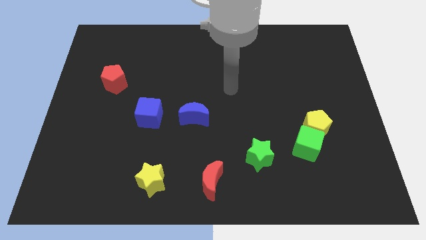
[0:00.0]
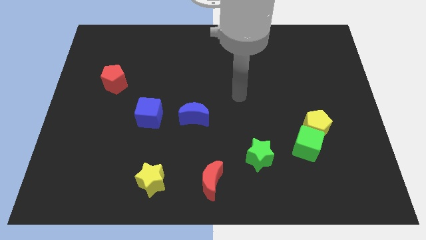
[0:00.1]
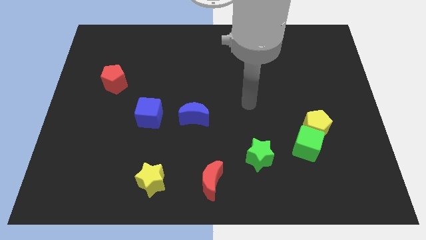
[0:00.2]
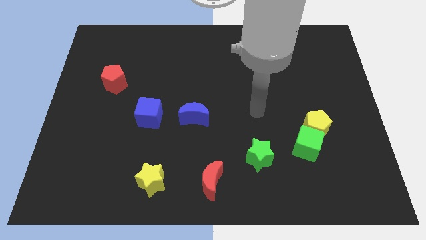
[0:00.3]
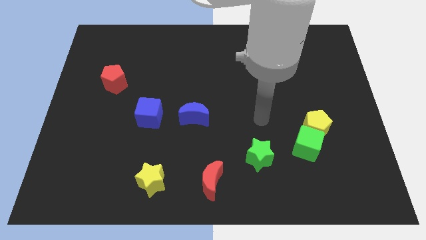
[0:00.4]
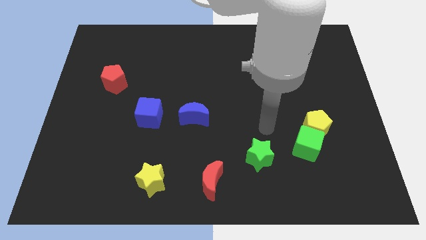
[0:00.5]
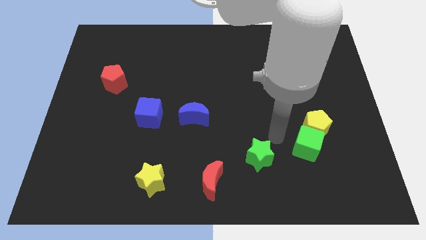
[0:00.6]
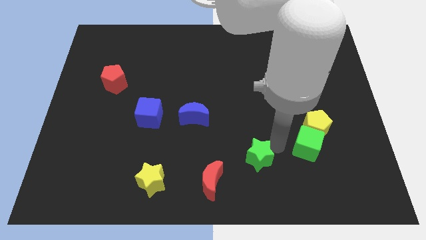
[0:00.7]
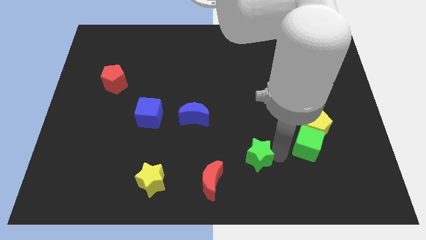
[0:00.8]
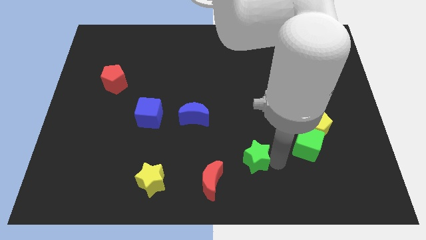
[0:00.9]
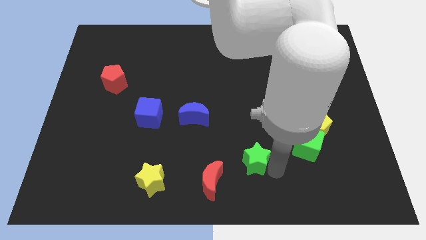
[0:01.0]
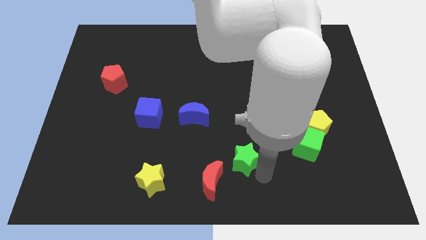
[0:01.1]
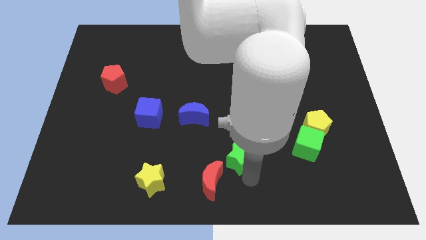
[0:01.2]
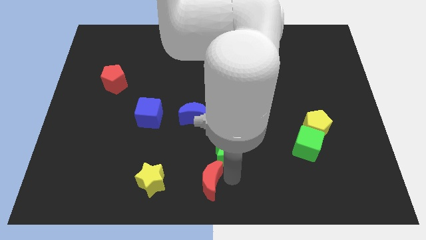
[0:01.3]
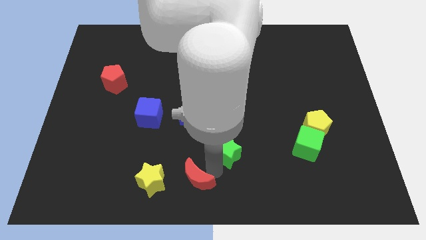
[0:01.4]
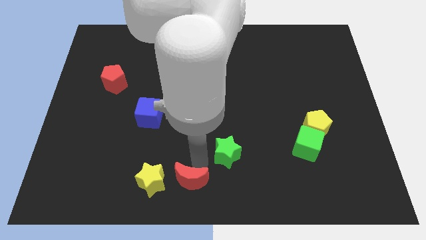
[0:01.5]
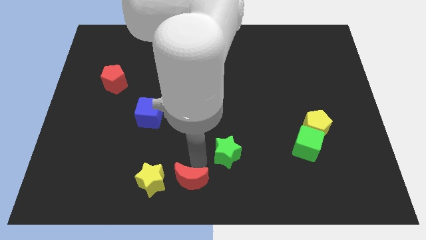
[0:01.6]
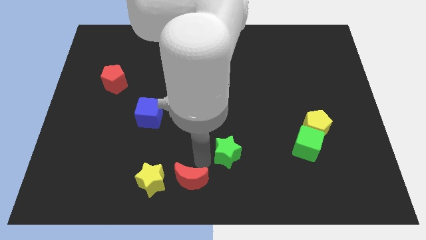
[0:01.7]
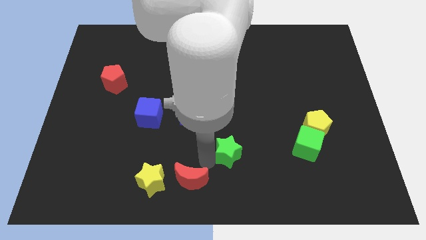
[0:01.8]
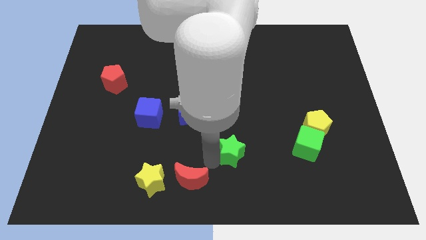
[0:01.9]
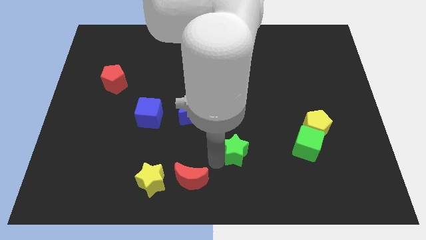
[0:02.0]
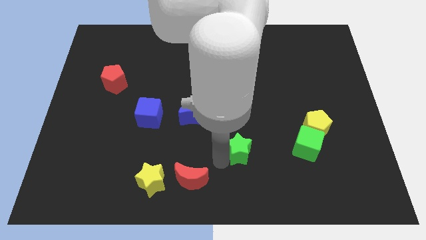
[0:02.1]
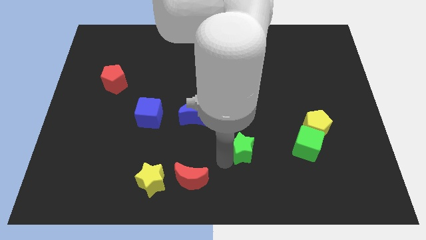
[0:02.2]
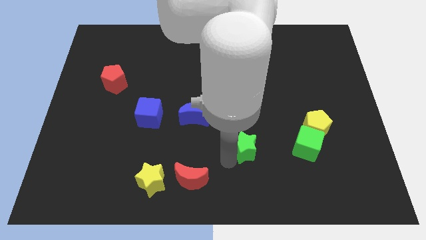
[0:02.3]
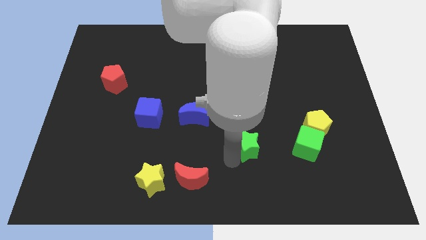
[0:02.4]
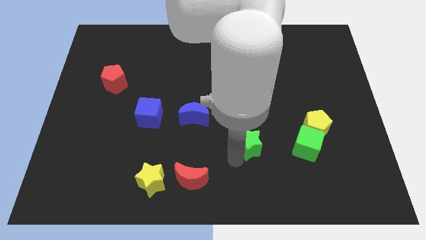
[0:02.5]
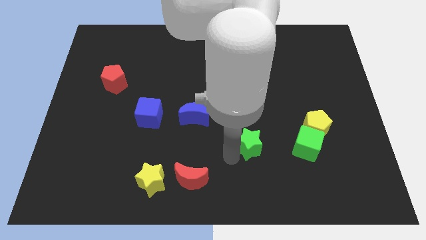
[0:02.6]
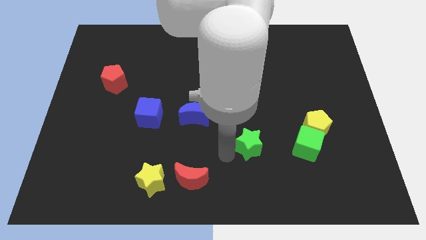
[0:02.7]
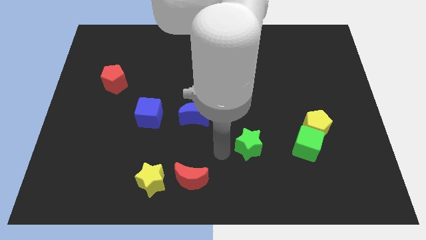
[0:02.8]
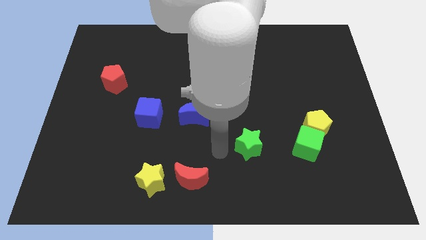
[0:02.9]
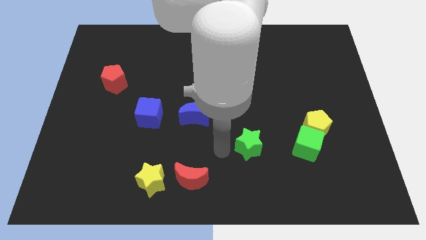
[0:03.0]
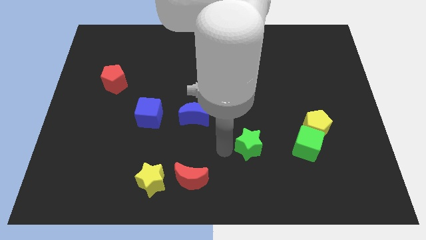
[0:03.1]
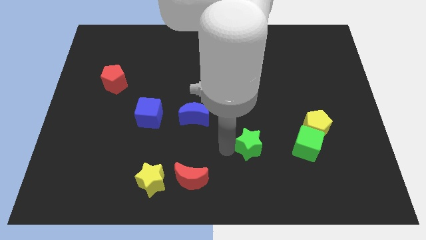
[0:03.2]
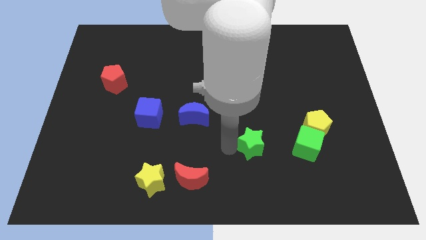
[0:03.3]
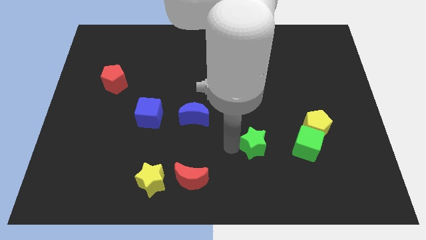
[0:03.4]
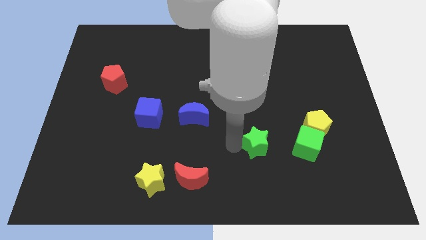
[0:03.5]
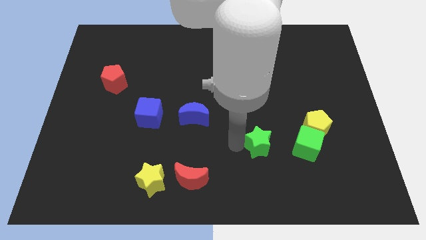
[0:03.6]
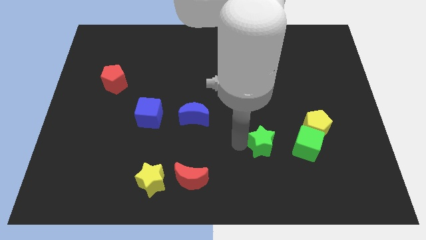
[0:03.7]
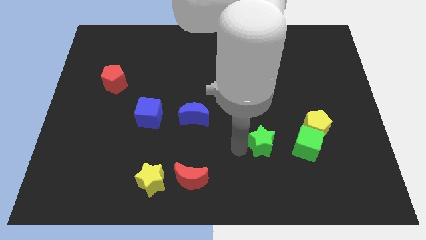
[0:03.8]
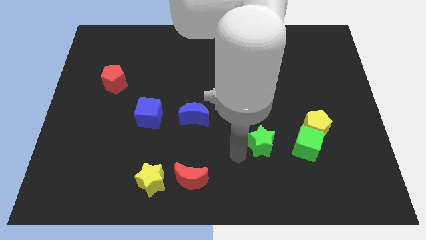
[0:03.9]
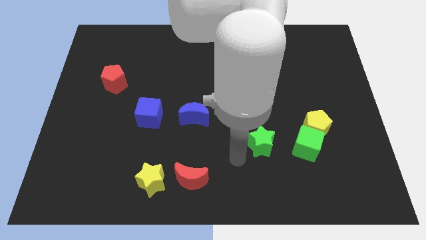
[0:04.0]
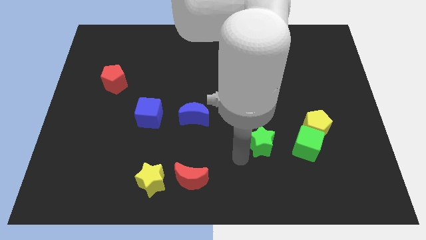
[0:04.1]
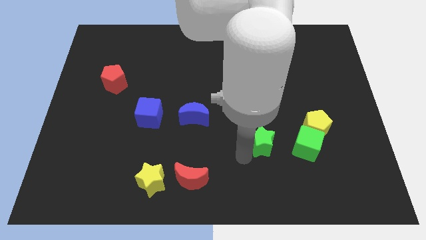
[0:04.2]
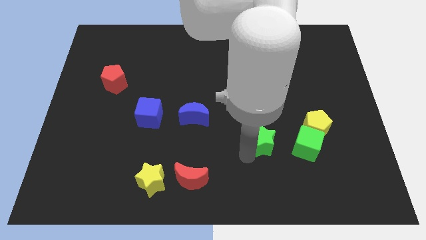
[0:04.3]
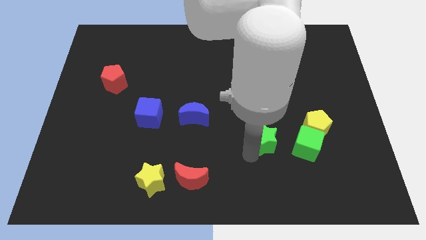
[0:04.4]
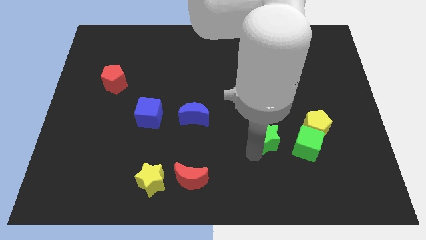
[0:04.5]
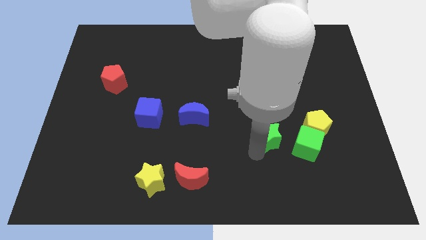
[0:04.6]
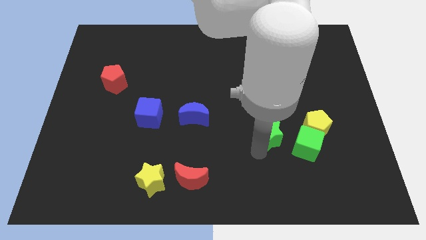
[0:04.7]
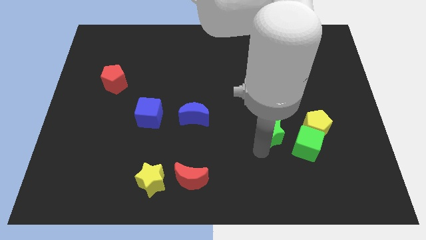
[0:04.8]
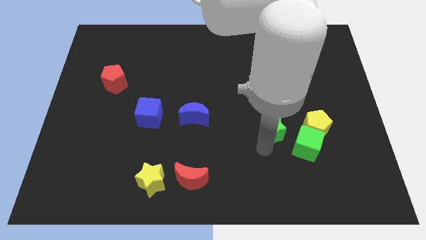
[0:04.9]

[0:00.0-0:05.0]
slightly push the green star upwards and then right

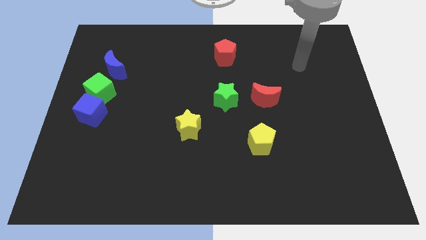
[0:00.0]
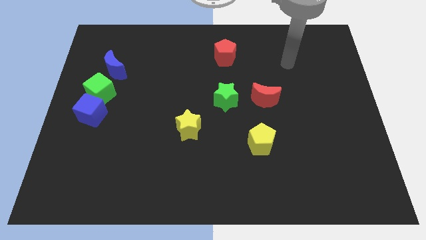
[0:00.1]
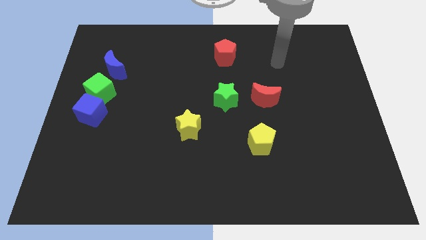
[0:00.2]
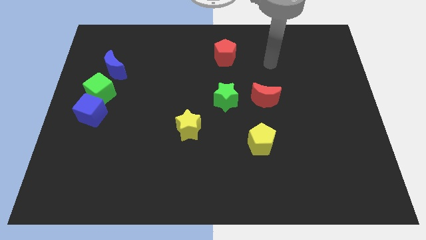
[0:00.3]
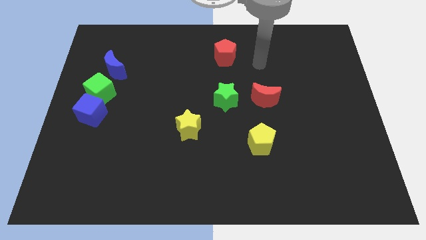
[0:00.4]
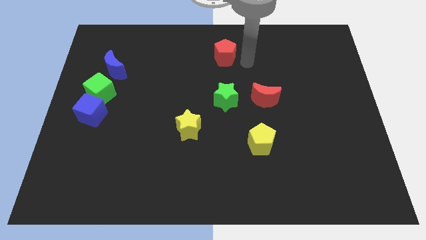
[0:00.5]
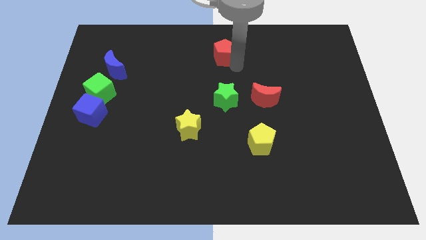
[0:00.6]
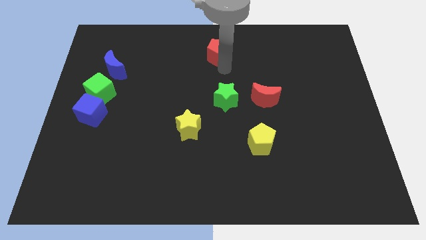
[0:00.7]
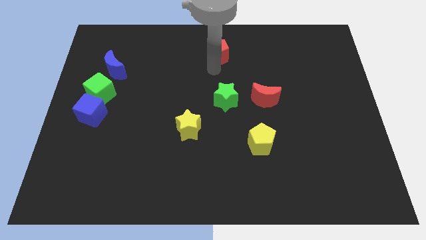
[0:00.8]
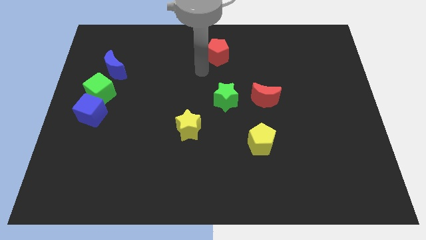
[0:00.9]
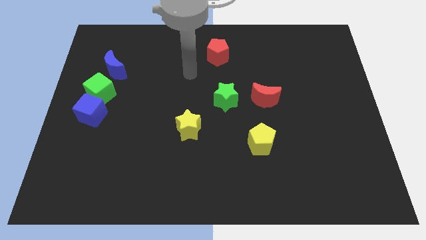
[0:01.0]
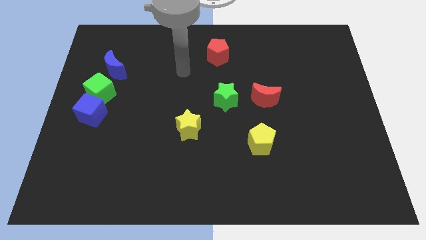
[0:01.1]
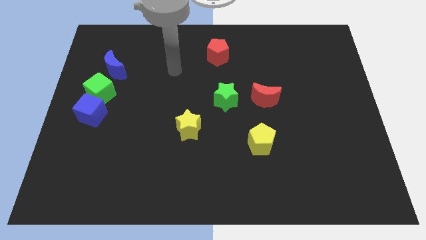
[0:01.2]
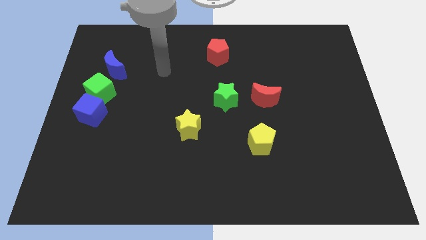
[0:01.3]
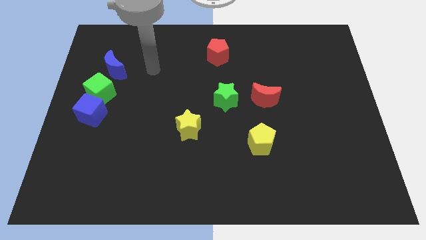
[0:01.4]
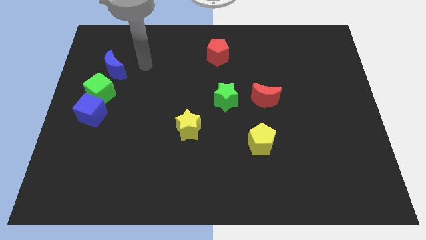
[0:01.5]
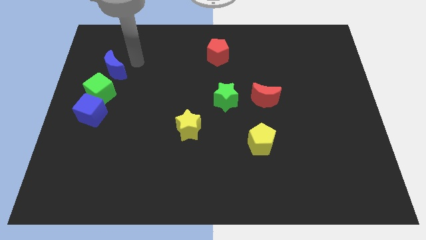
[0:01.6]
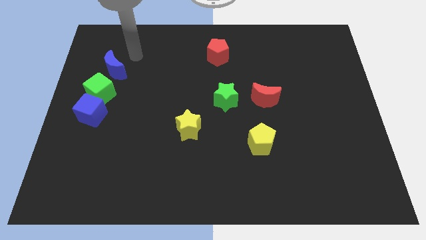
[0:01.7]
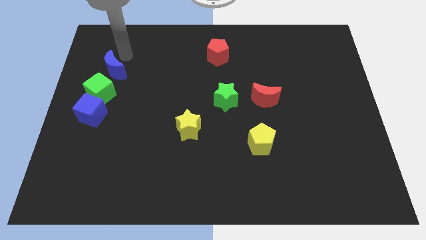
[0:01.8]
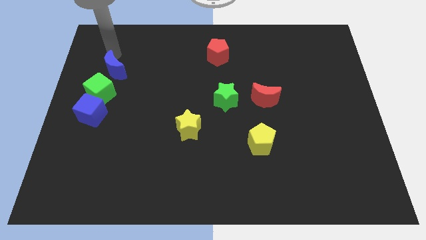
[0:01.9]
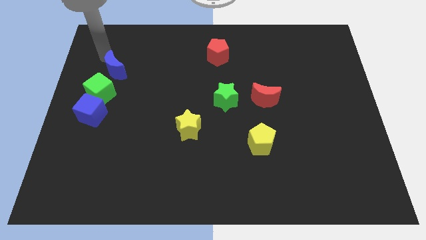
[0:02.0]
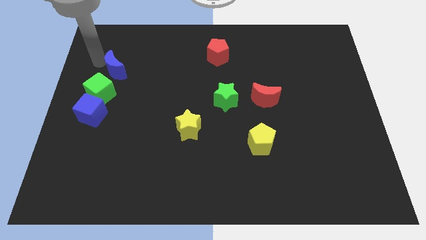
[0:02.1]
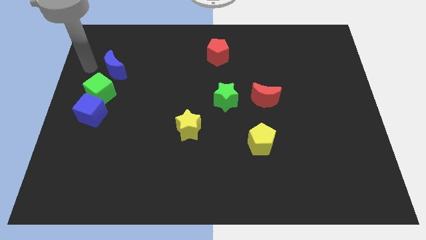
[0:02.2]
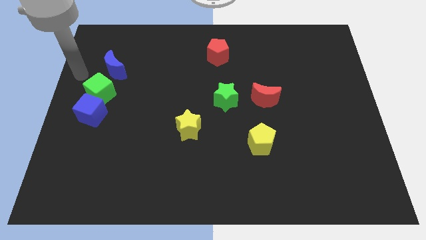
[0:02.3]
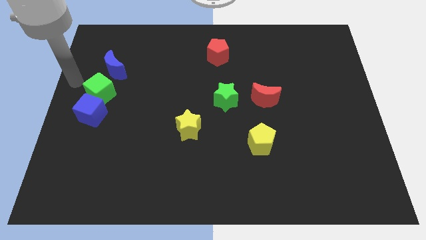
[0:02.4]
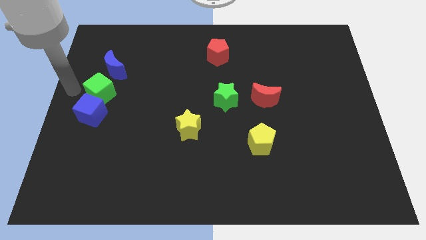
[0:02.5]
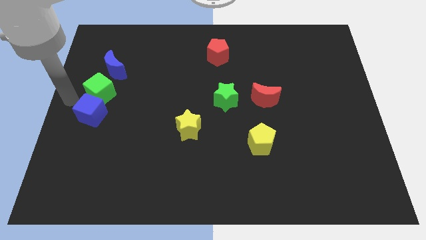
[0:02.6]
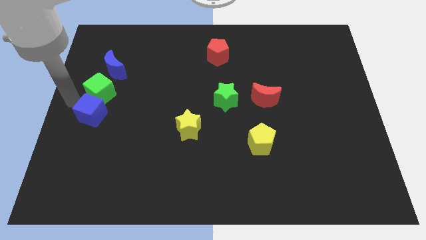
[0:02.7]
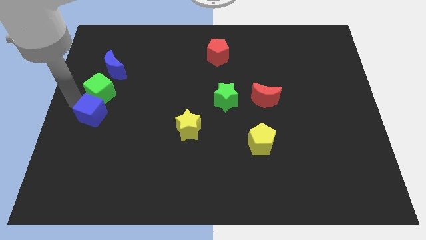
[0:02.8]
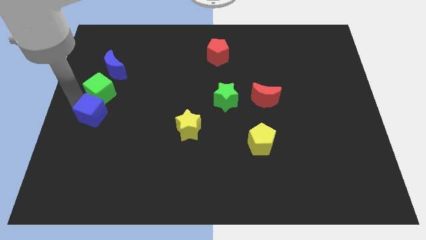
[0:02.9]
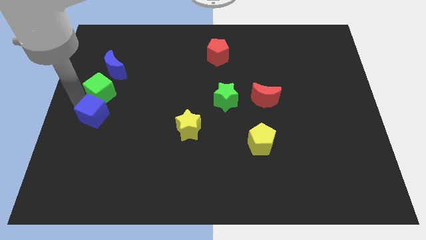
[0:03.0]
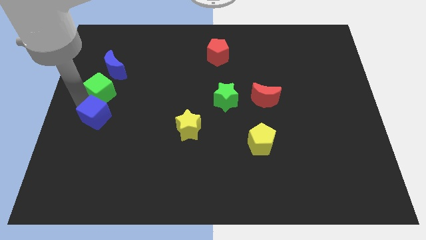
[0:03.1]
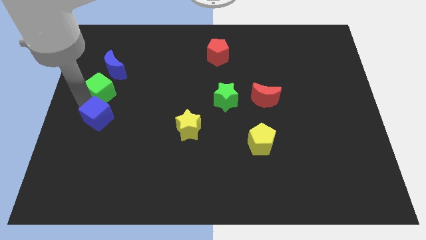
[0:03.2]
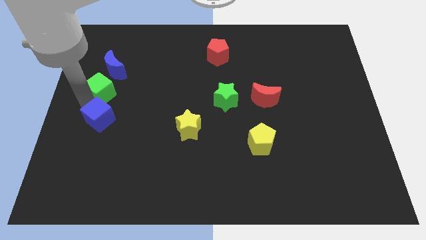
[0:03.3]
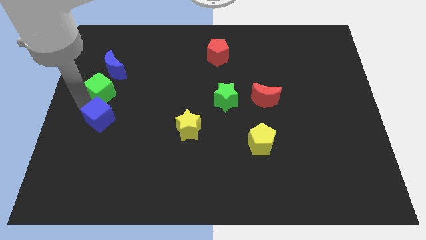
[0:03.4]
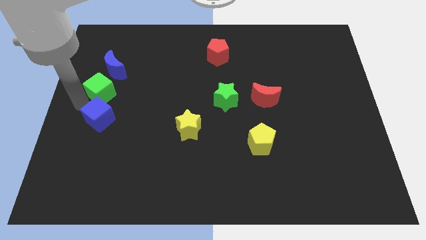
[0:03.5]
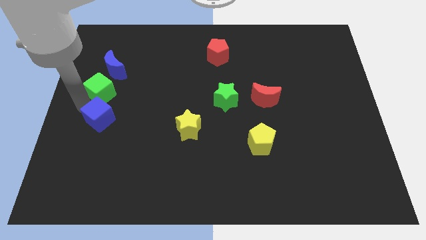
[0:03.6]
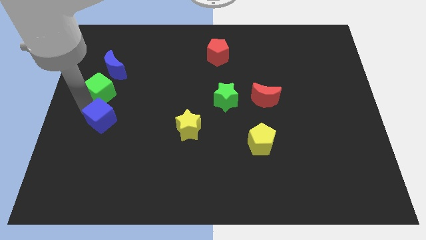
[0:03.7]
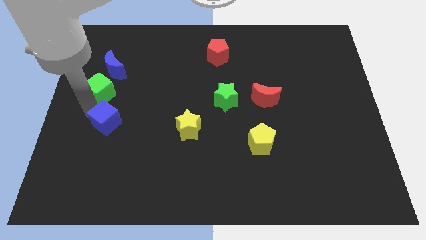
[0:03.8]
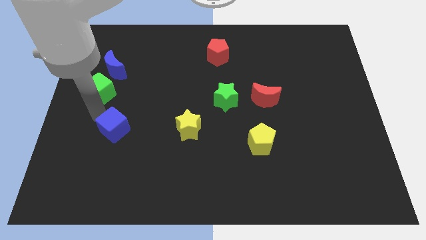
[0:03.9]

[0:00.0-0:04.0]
move the blue cube somewhat downwards and right
